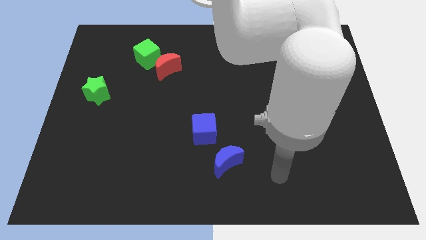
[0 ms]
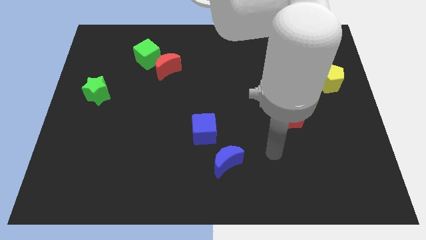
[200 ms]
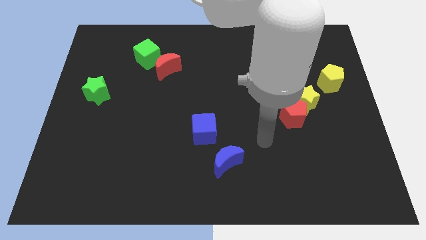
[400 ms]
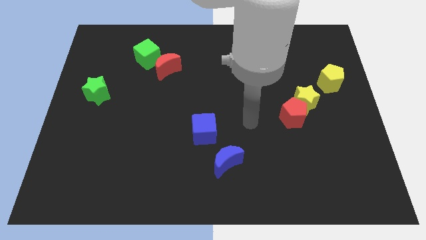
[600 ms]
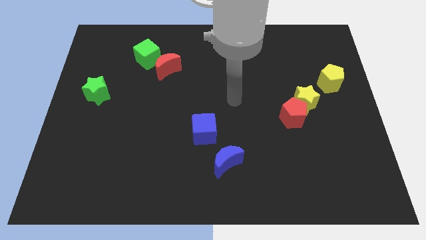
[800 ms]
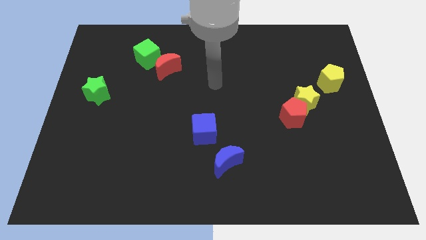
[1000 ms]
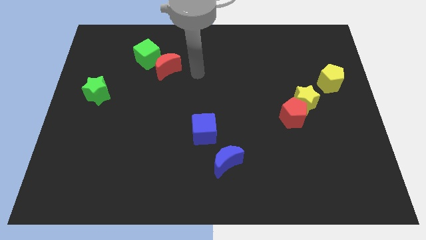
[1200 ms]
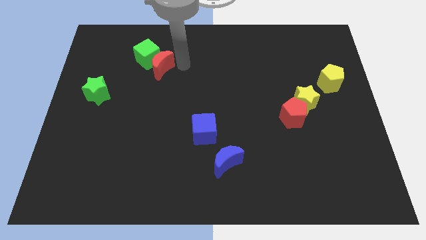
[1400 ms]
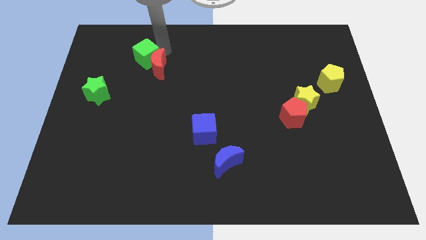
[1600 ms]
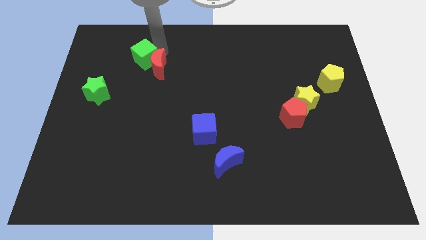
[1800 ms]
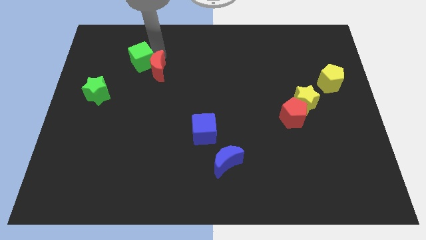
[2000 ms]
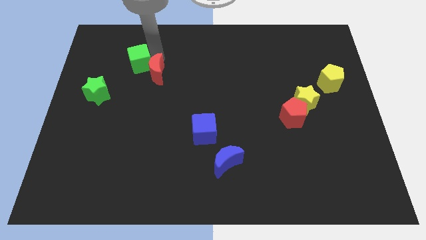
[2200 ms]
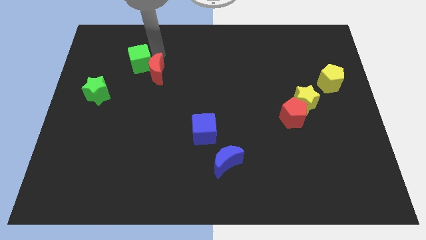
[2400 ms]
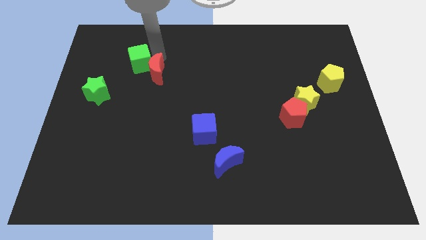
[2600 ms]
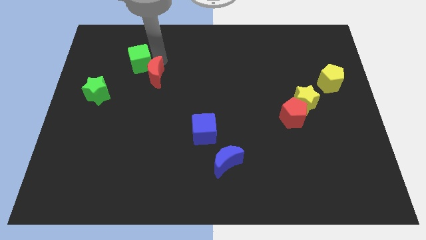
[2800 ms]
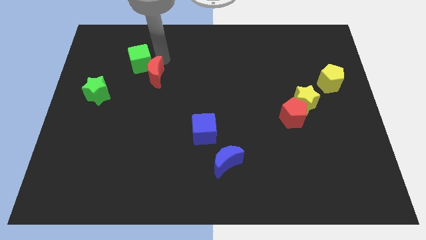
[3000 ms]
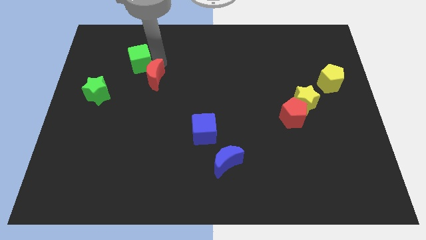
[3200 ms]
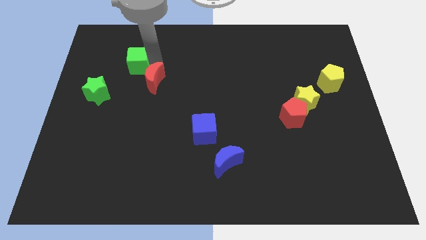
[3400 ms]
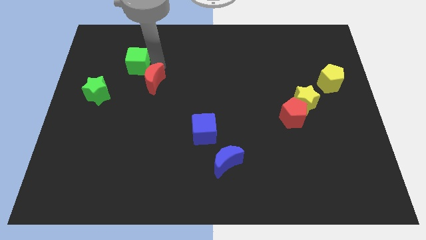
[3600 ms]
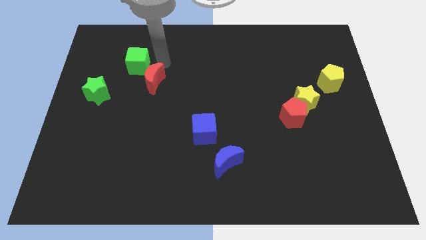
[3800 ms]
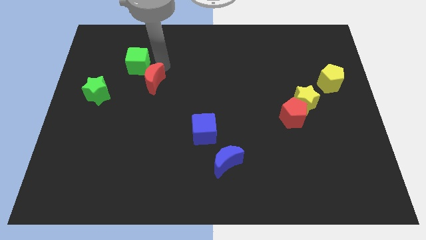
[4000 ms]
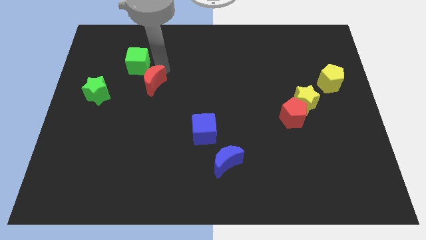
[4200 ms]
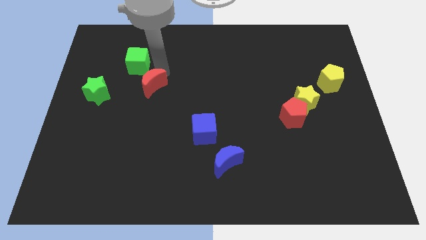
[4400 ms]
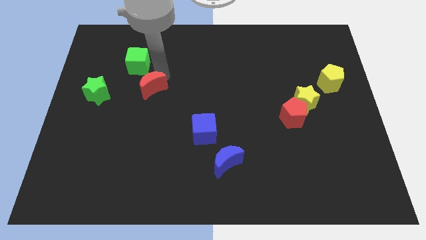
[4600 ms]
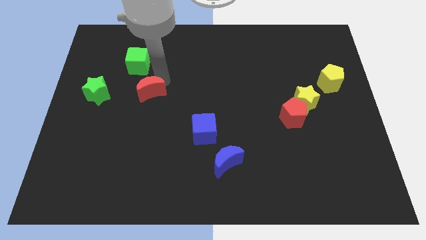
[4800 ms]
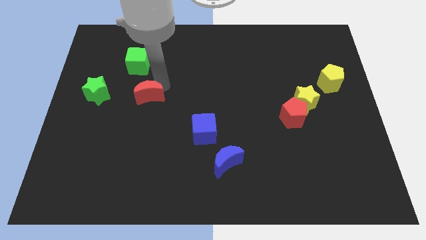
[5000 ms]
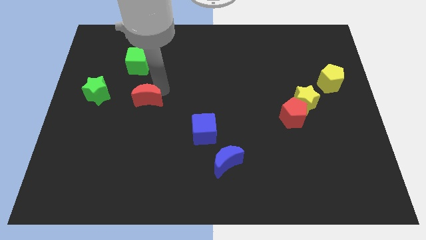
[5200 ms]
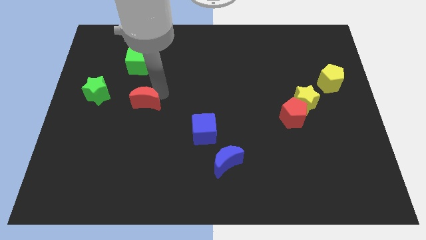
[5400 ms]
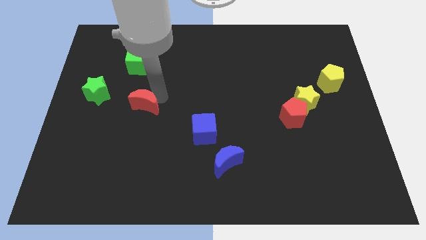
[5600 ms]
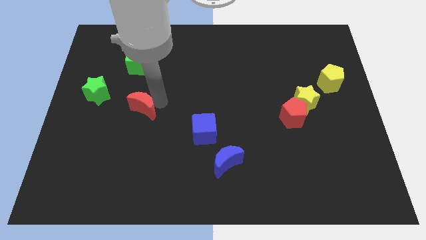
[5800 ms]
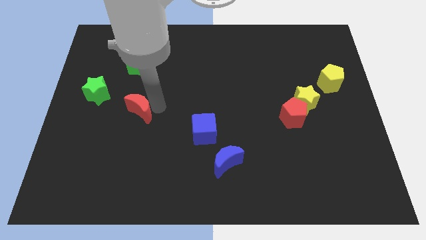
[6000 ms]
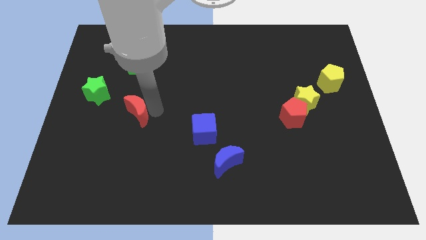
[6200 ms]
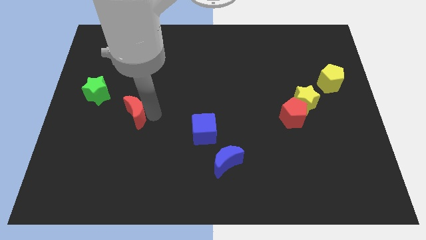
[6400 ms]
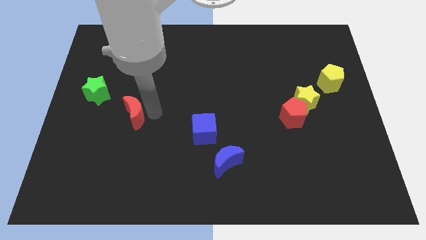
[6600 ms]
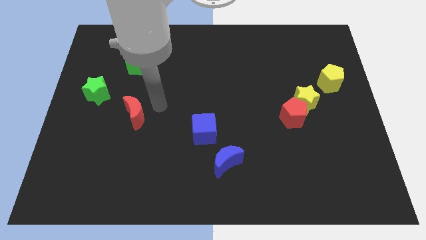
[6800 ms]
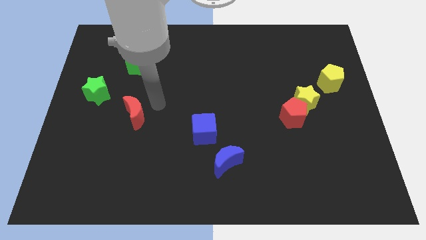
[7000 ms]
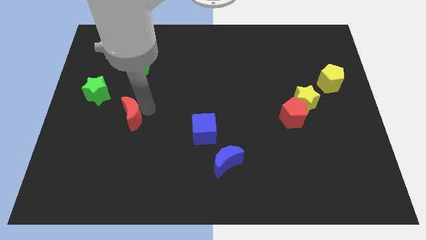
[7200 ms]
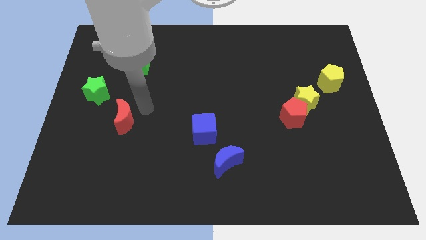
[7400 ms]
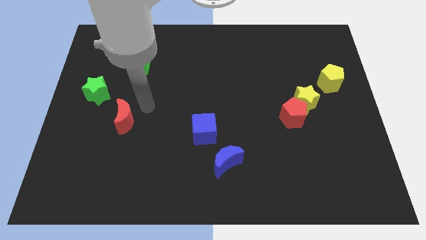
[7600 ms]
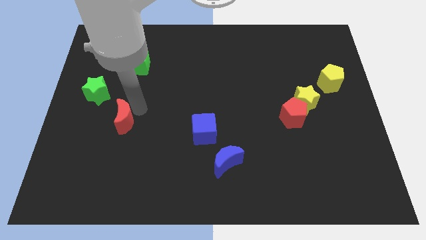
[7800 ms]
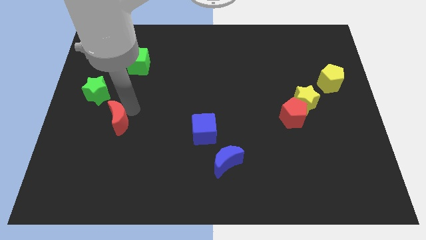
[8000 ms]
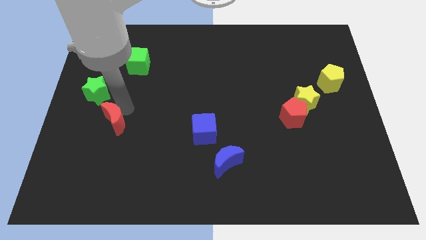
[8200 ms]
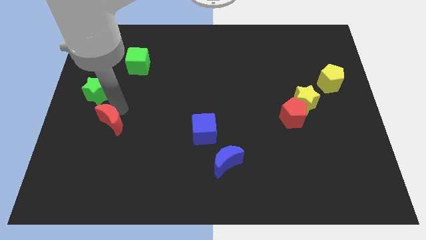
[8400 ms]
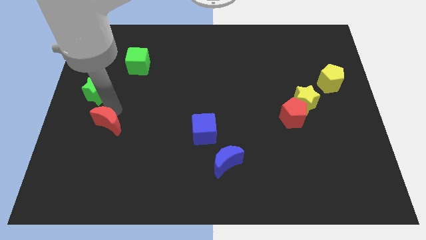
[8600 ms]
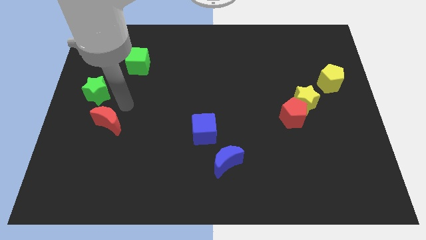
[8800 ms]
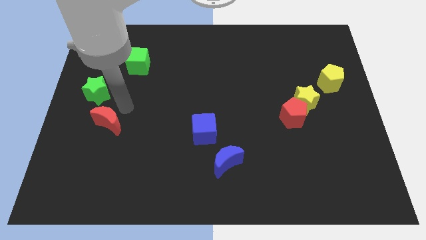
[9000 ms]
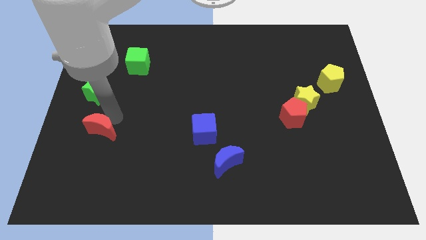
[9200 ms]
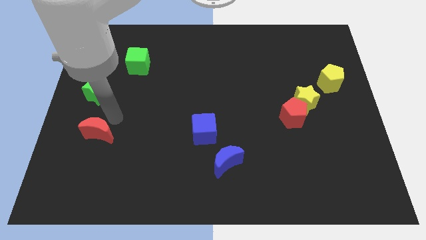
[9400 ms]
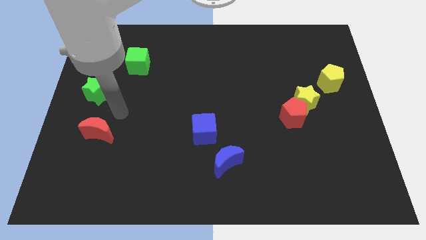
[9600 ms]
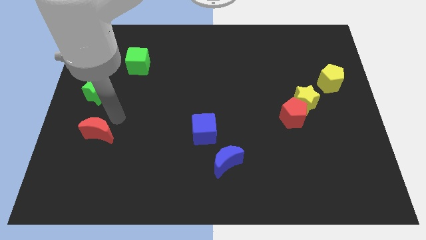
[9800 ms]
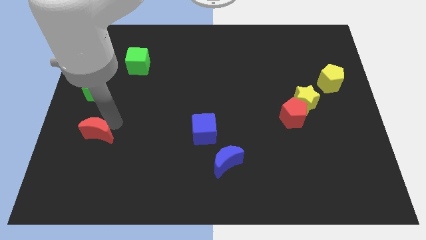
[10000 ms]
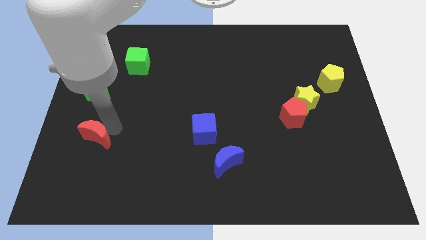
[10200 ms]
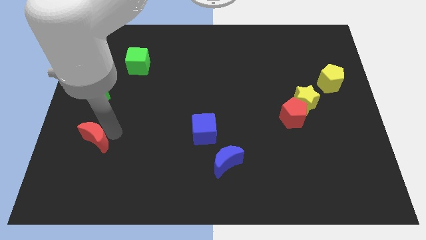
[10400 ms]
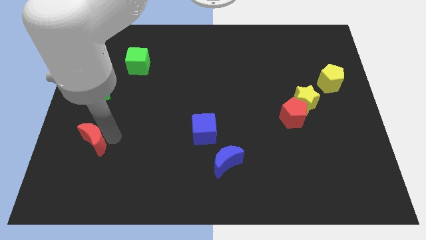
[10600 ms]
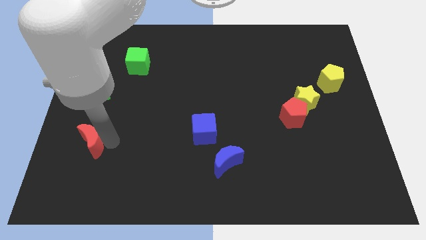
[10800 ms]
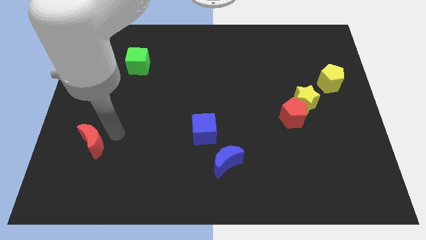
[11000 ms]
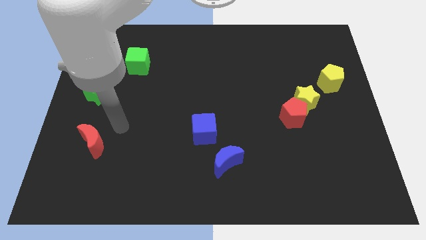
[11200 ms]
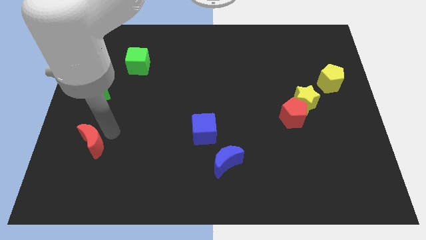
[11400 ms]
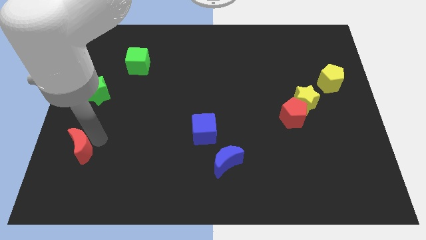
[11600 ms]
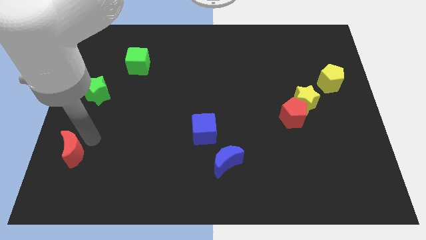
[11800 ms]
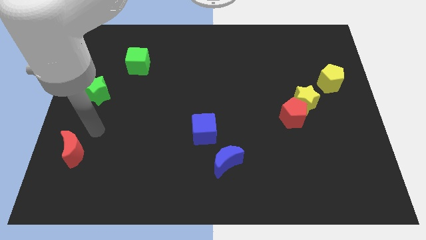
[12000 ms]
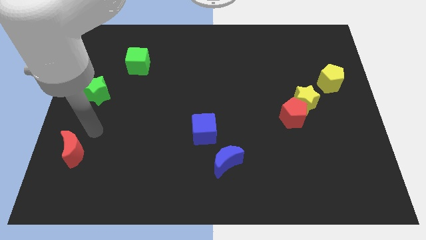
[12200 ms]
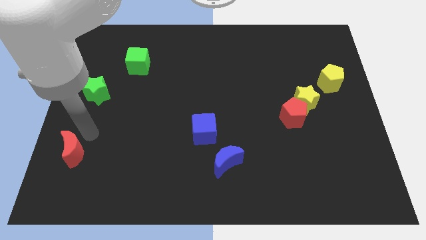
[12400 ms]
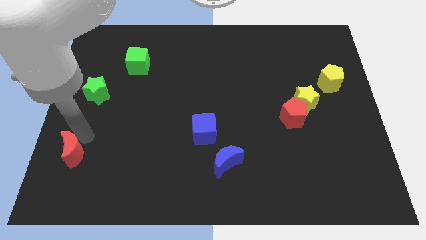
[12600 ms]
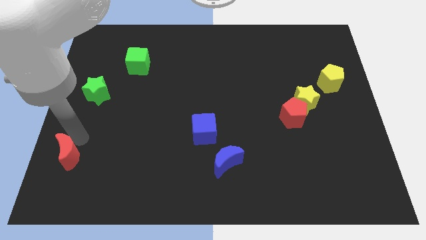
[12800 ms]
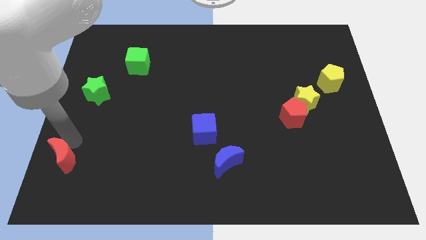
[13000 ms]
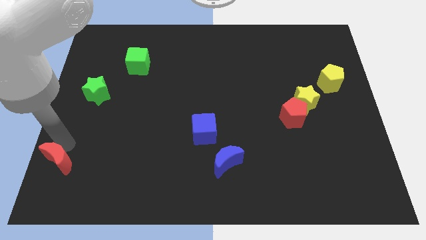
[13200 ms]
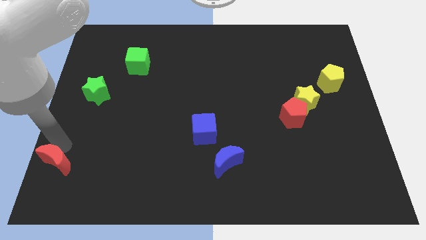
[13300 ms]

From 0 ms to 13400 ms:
move the red moon to the bottom left corner
